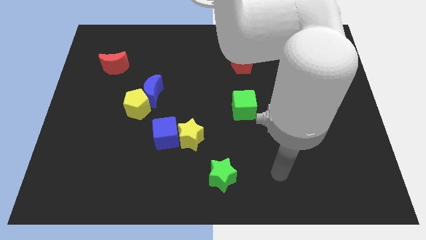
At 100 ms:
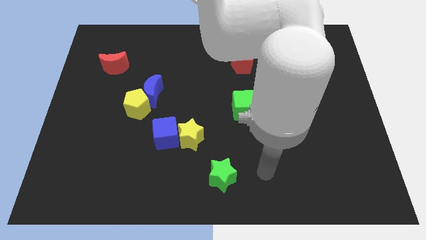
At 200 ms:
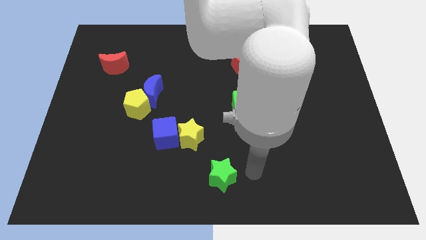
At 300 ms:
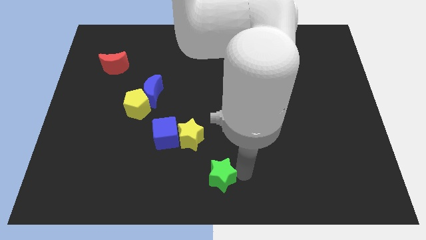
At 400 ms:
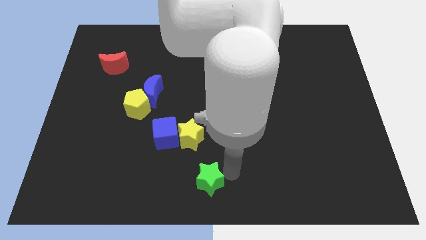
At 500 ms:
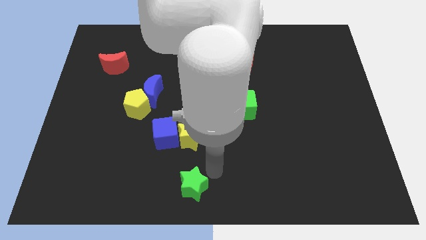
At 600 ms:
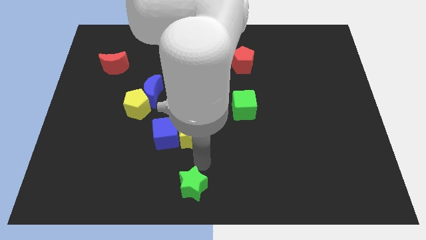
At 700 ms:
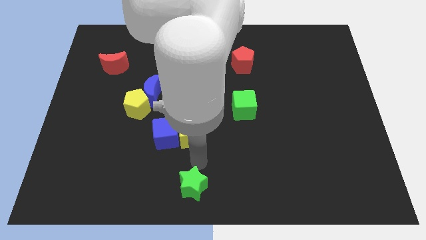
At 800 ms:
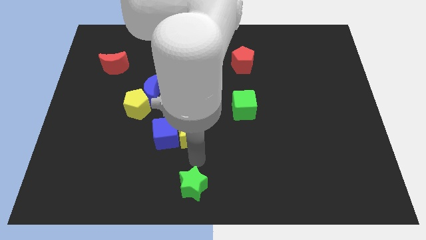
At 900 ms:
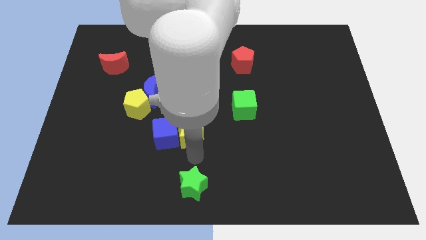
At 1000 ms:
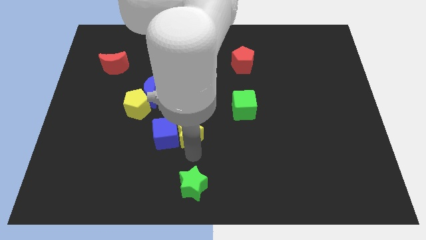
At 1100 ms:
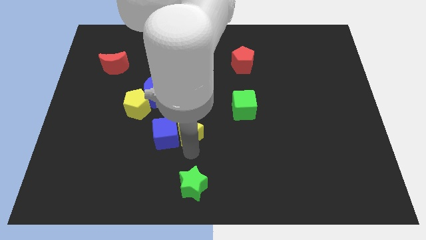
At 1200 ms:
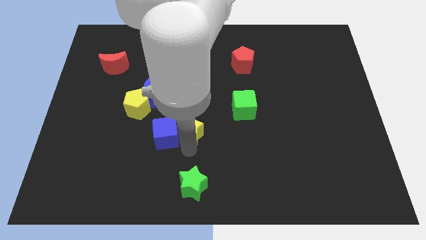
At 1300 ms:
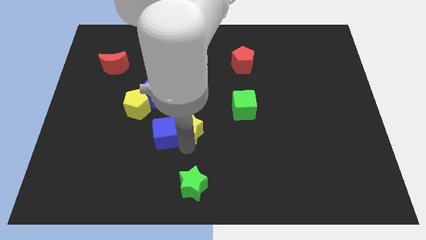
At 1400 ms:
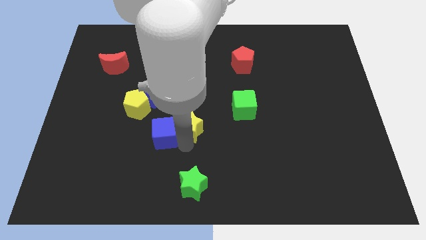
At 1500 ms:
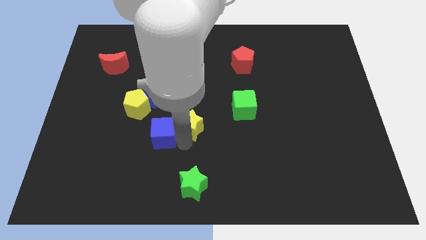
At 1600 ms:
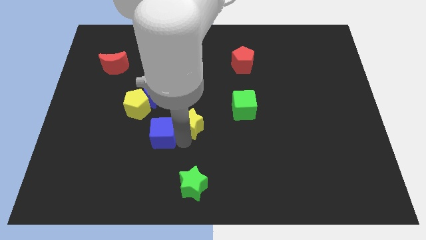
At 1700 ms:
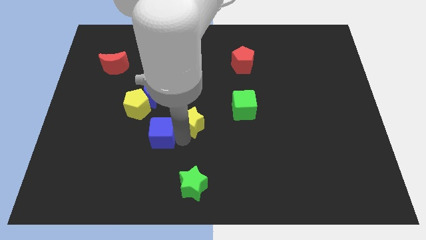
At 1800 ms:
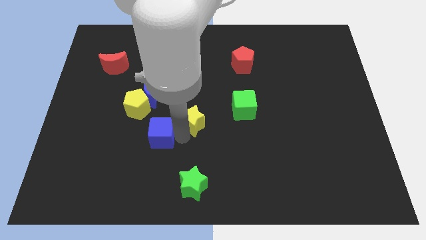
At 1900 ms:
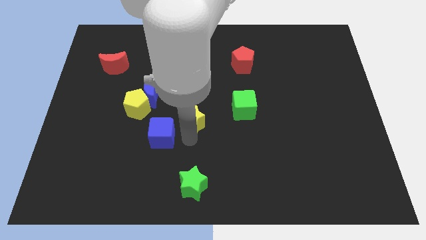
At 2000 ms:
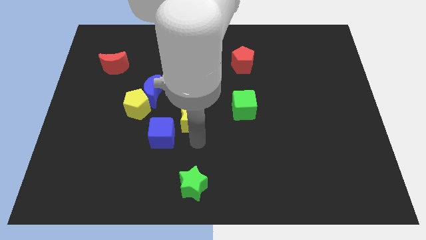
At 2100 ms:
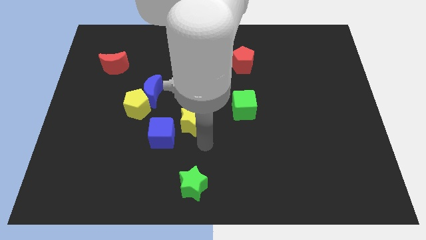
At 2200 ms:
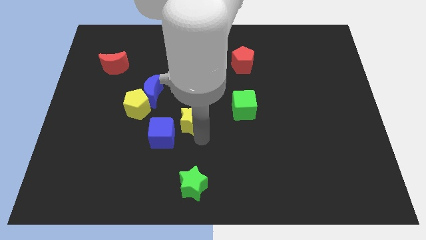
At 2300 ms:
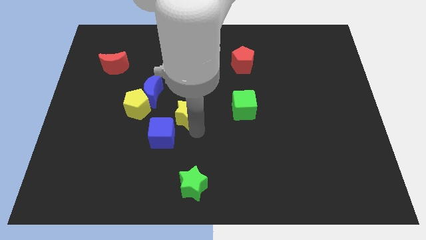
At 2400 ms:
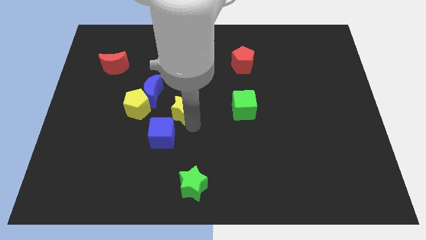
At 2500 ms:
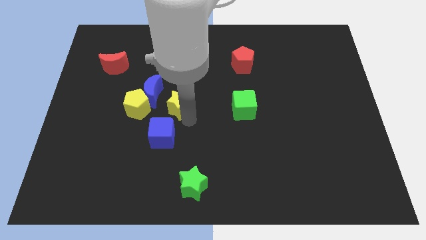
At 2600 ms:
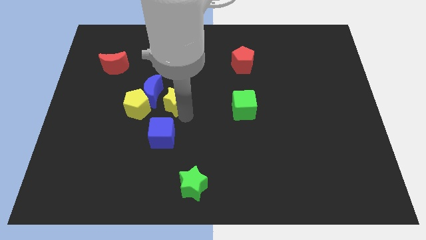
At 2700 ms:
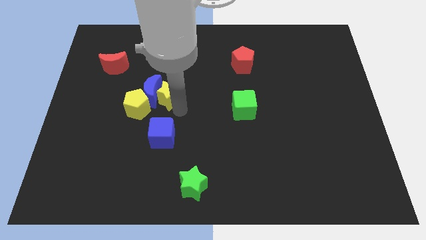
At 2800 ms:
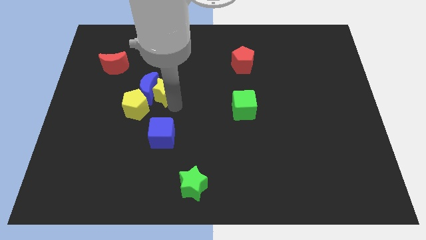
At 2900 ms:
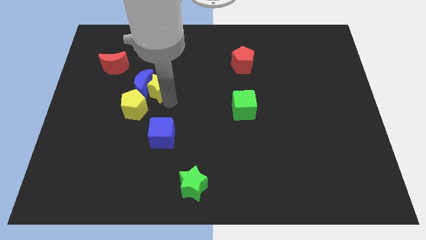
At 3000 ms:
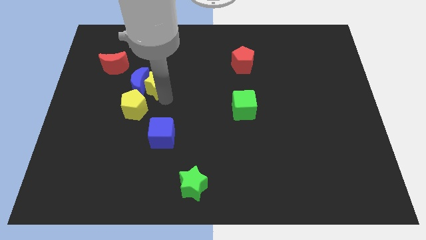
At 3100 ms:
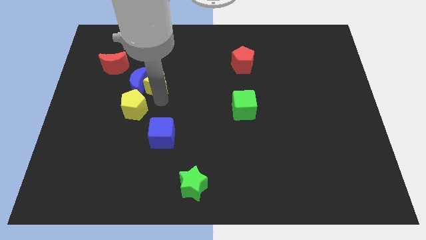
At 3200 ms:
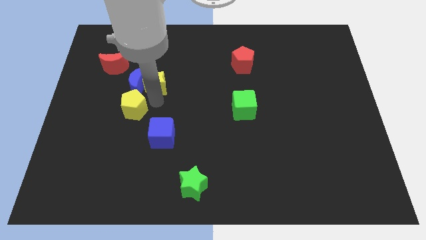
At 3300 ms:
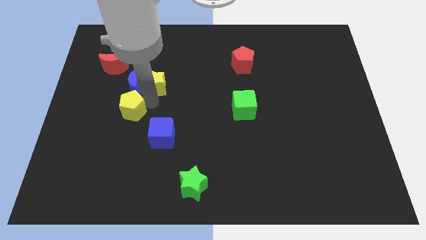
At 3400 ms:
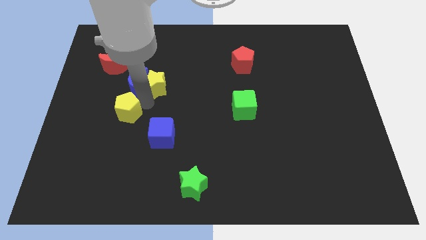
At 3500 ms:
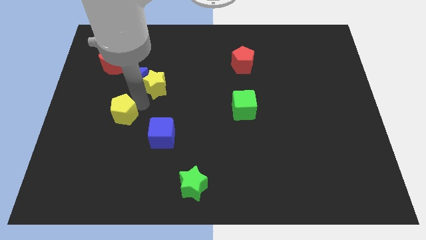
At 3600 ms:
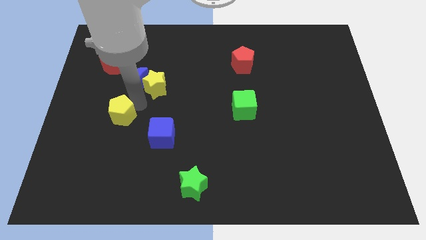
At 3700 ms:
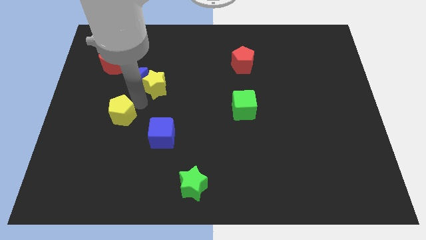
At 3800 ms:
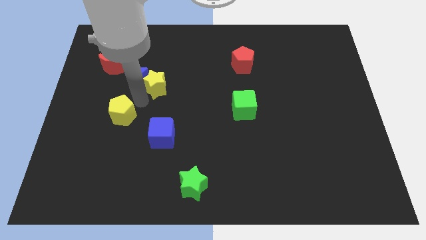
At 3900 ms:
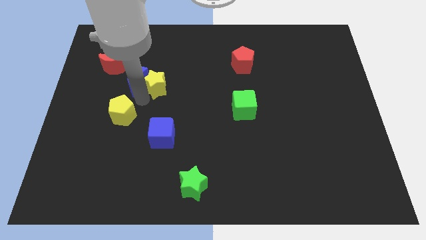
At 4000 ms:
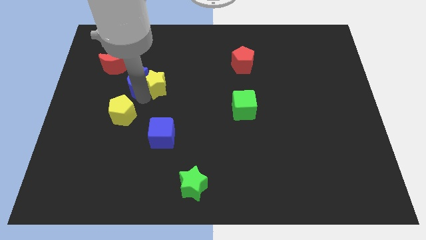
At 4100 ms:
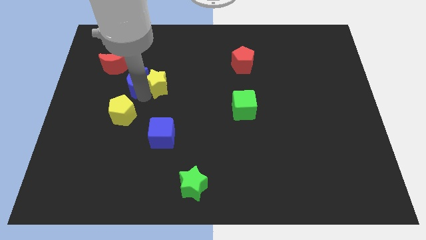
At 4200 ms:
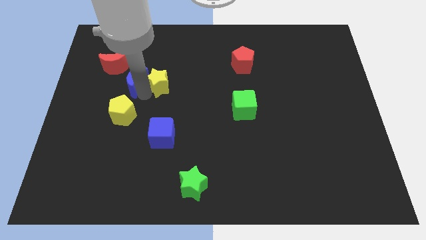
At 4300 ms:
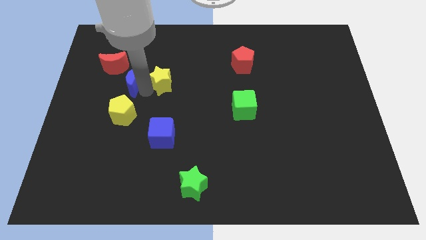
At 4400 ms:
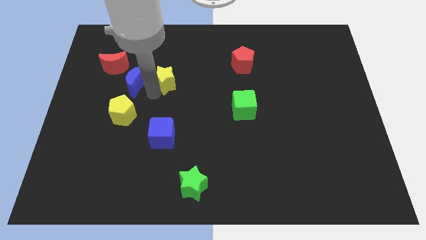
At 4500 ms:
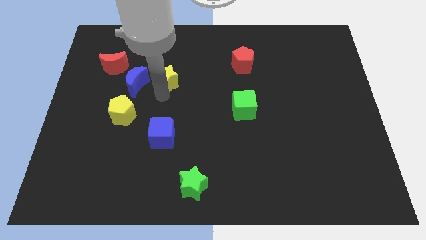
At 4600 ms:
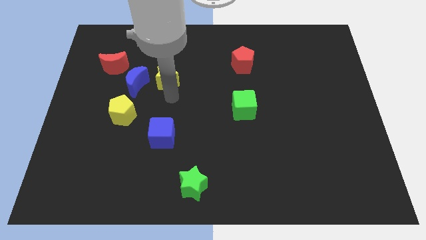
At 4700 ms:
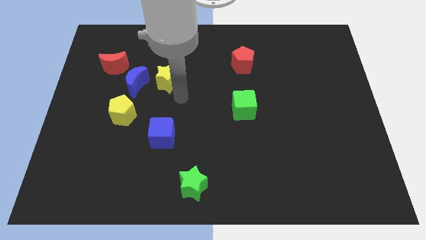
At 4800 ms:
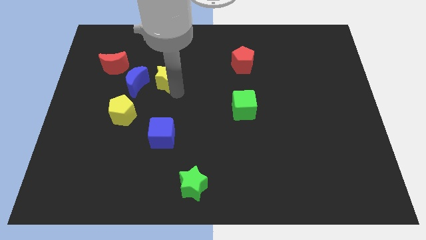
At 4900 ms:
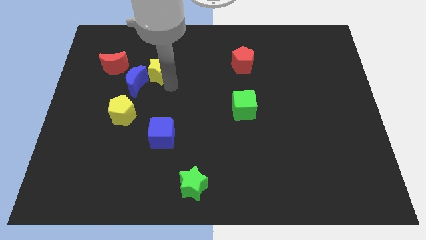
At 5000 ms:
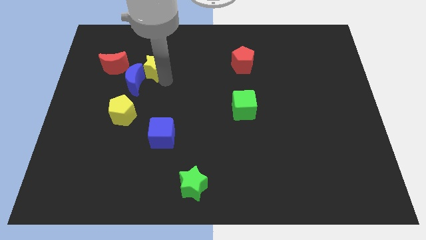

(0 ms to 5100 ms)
move the yellow star to the top side of the blue moon

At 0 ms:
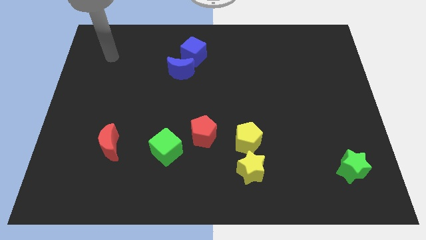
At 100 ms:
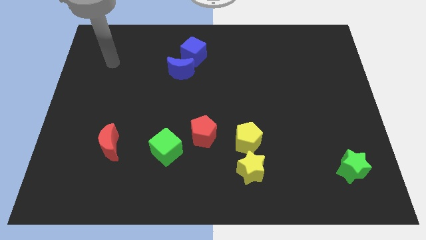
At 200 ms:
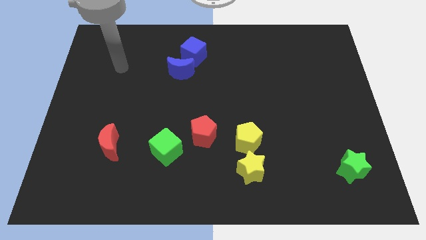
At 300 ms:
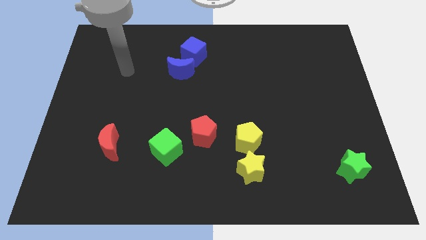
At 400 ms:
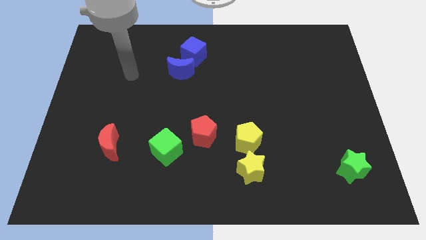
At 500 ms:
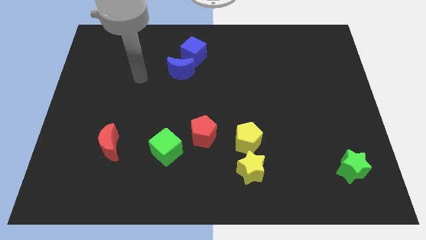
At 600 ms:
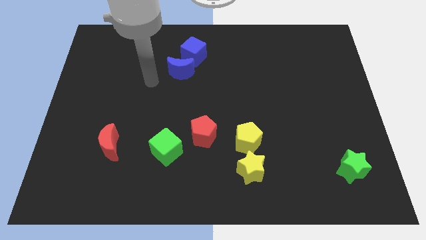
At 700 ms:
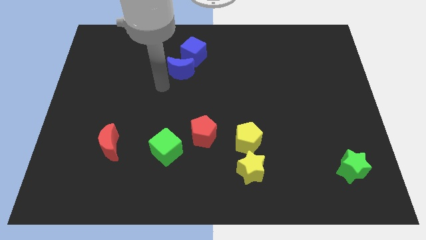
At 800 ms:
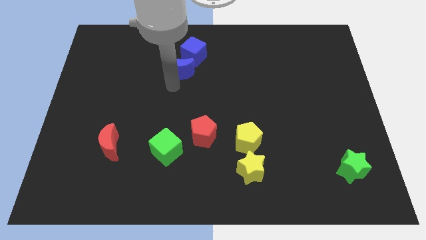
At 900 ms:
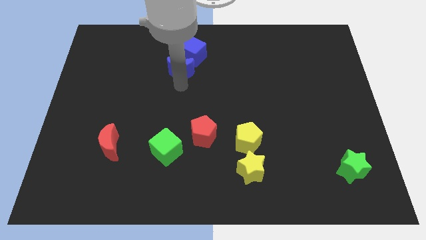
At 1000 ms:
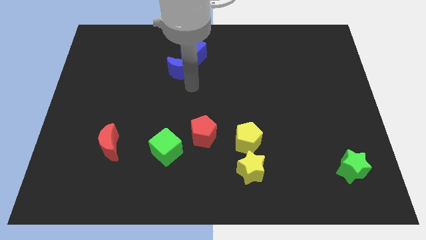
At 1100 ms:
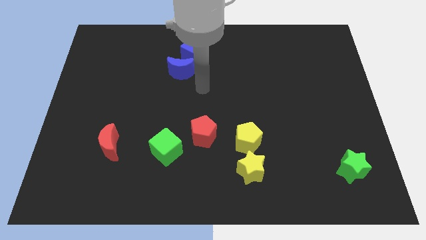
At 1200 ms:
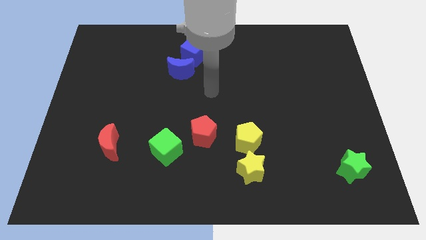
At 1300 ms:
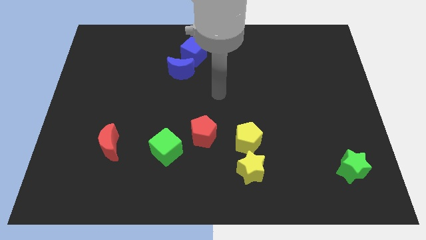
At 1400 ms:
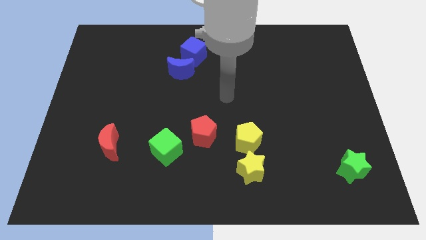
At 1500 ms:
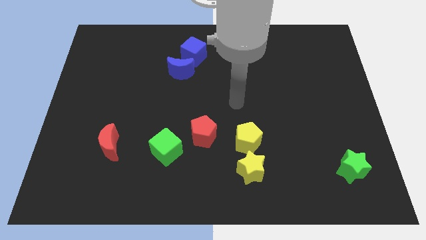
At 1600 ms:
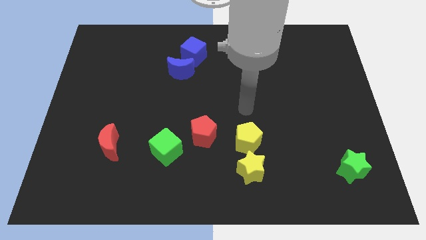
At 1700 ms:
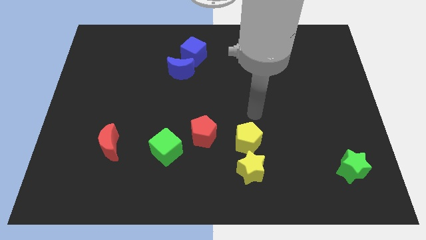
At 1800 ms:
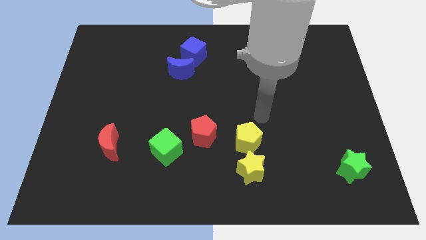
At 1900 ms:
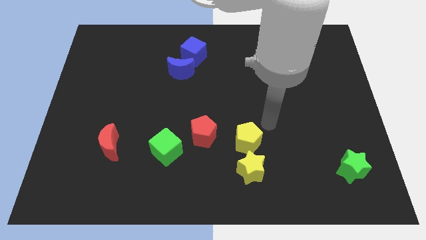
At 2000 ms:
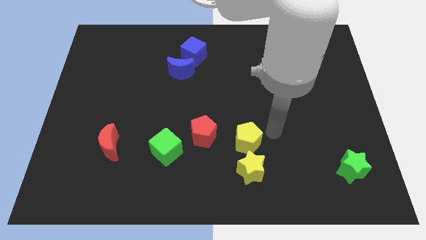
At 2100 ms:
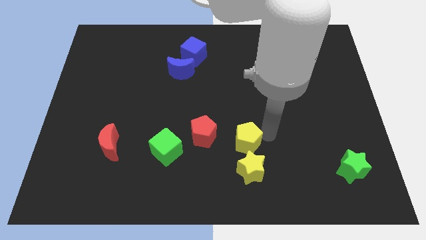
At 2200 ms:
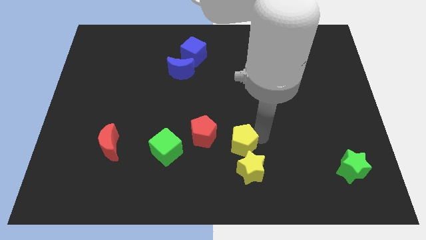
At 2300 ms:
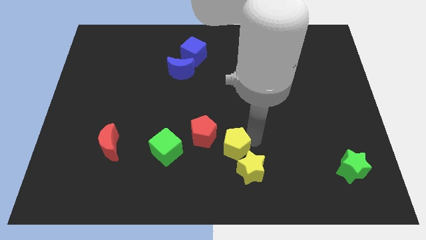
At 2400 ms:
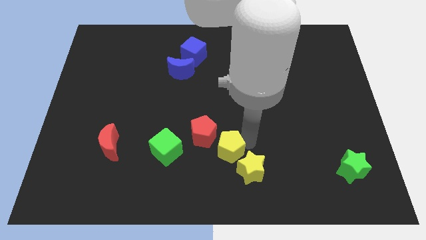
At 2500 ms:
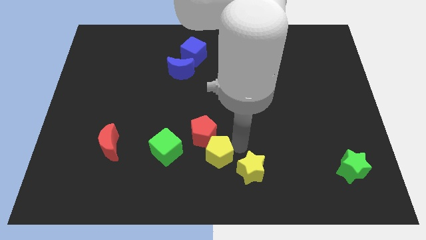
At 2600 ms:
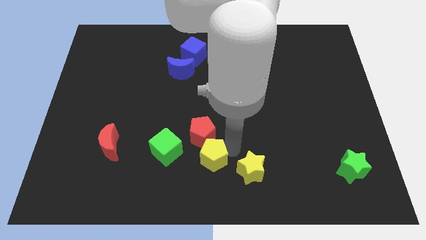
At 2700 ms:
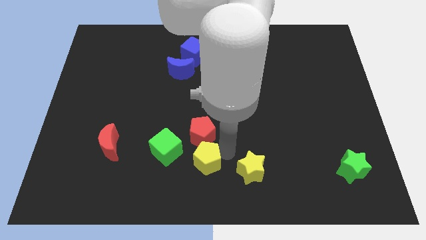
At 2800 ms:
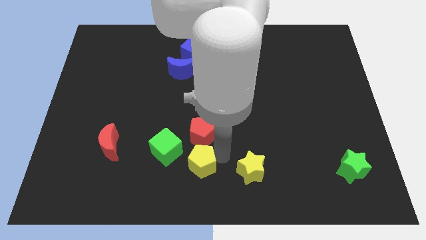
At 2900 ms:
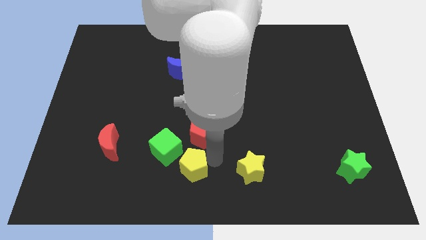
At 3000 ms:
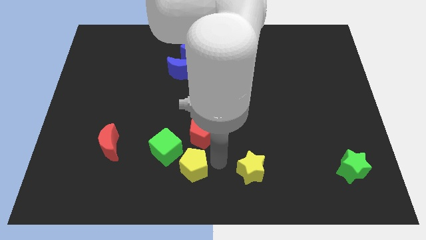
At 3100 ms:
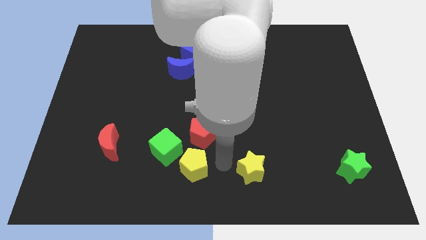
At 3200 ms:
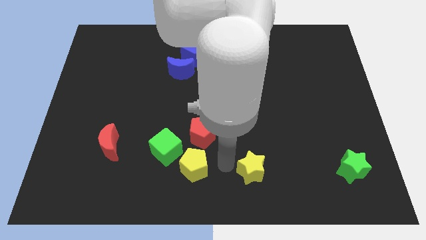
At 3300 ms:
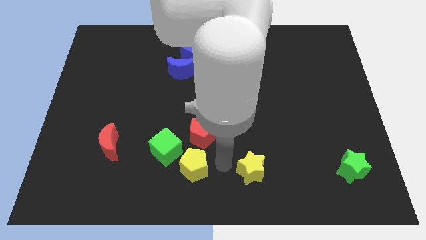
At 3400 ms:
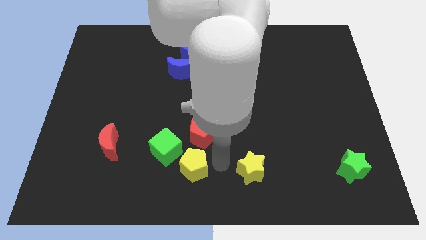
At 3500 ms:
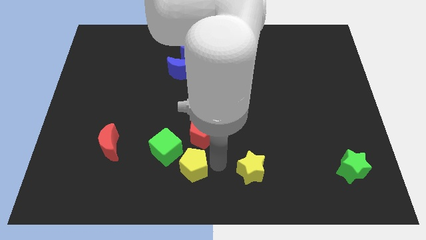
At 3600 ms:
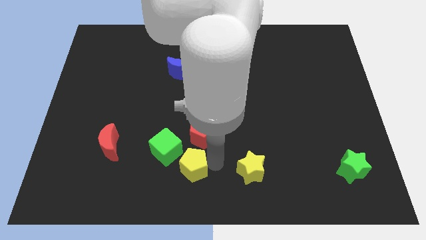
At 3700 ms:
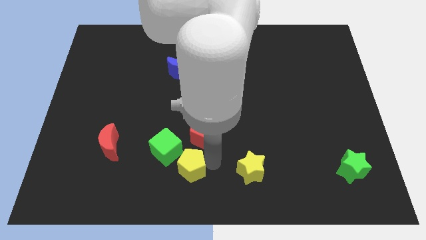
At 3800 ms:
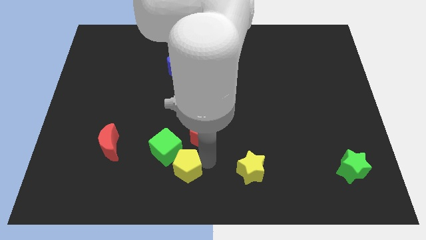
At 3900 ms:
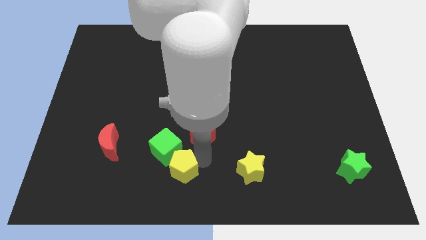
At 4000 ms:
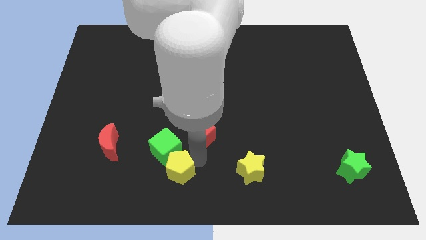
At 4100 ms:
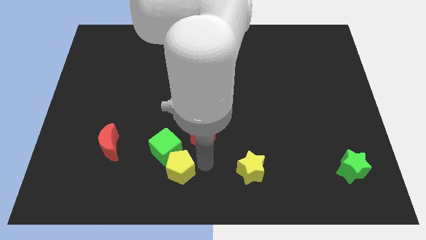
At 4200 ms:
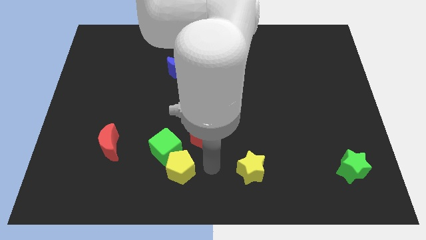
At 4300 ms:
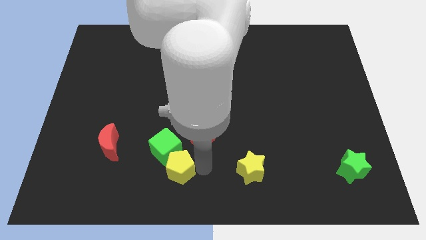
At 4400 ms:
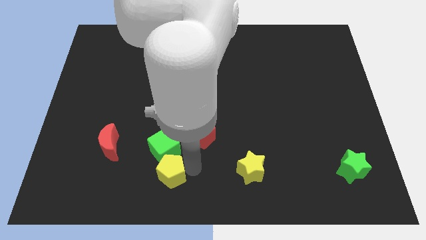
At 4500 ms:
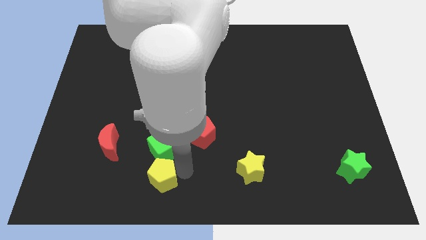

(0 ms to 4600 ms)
slide the yellow pentagon to the bottom left side of the green cube
